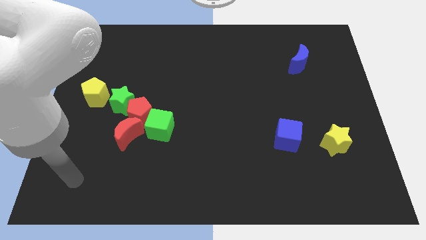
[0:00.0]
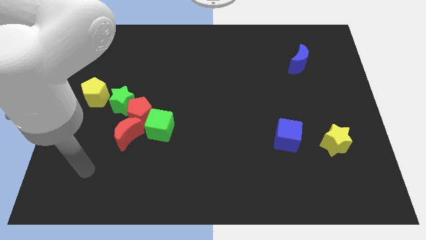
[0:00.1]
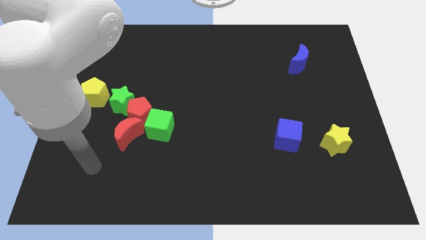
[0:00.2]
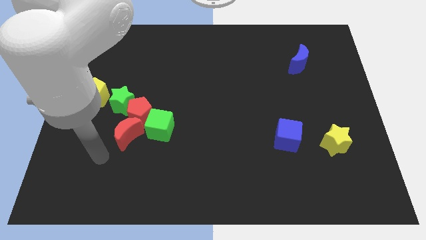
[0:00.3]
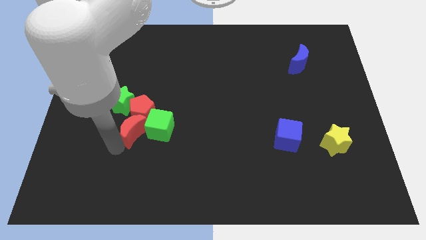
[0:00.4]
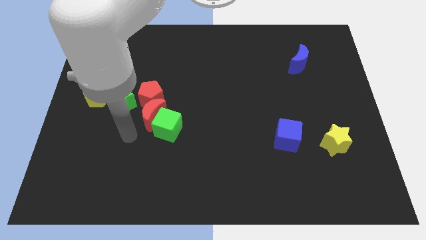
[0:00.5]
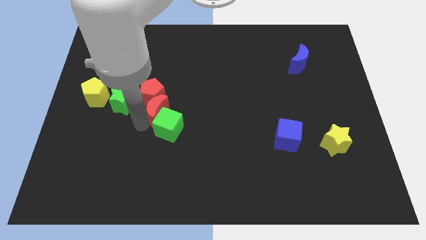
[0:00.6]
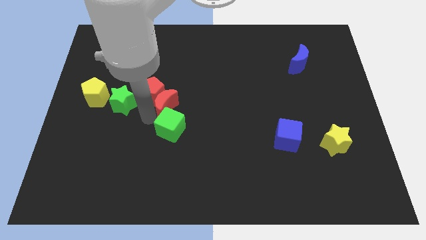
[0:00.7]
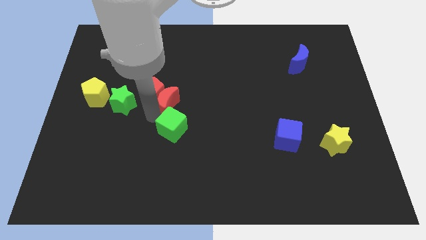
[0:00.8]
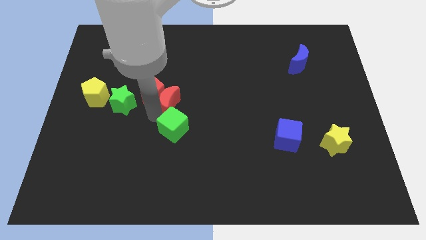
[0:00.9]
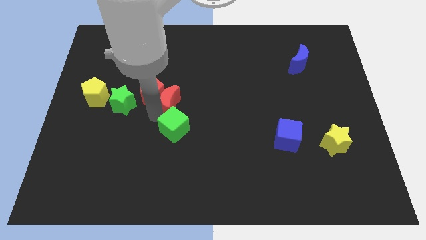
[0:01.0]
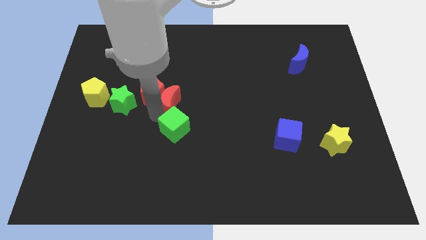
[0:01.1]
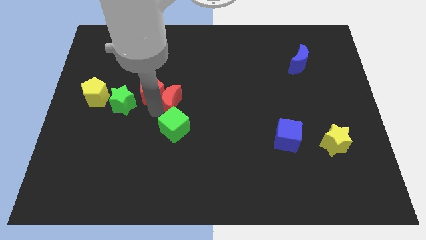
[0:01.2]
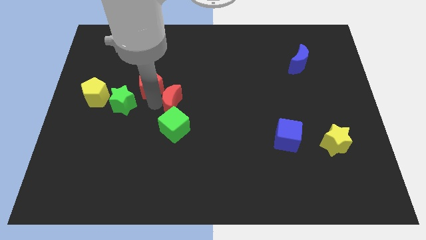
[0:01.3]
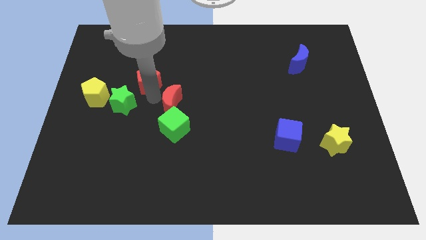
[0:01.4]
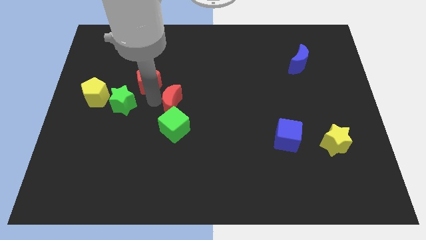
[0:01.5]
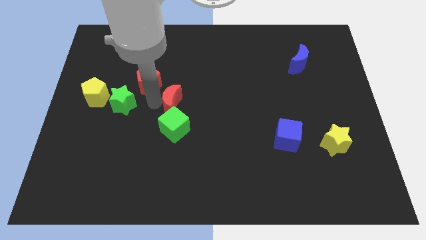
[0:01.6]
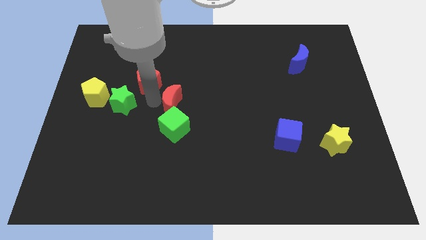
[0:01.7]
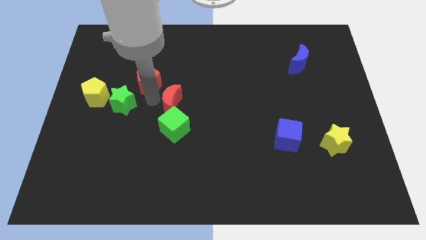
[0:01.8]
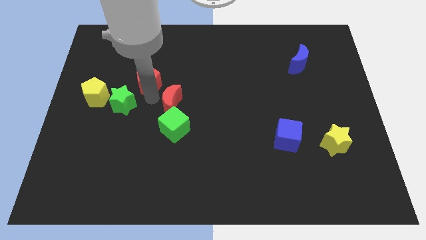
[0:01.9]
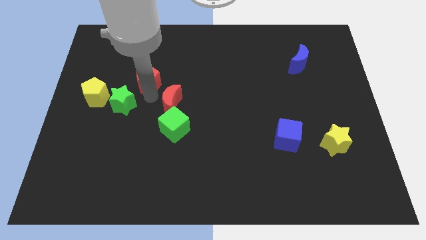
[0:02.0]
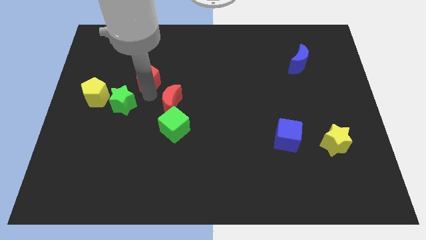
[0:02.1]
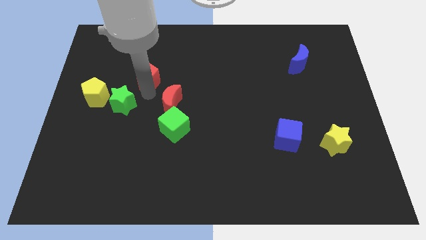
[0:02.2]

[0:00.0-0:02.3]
separate the red pentagon from the group of blocks

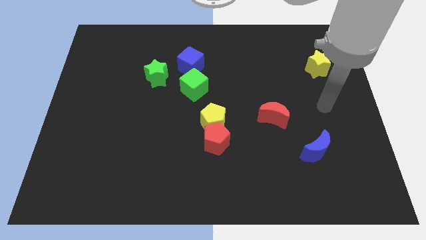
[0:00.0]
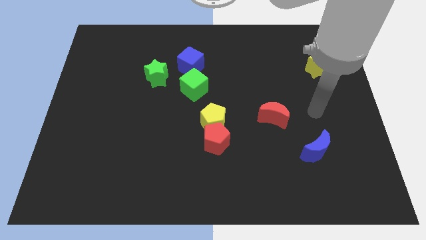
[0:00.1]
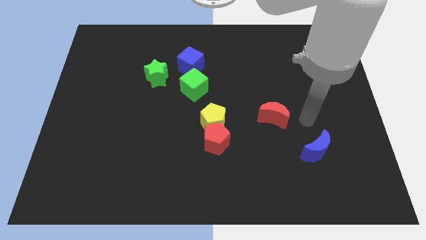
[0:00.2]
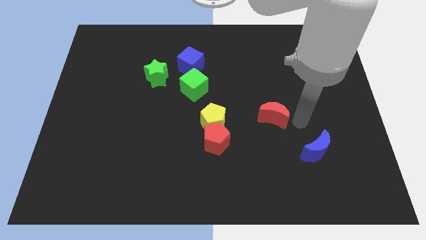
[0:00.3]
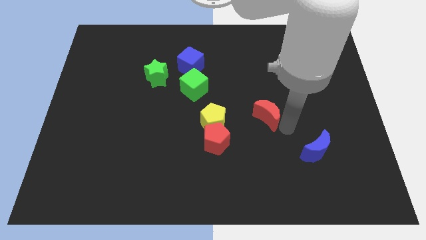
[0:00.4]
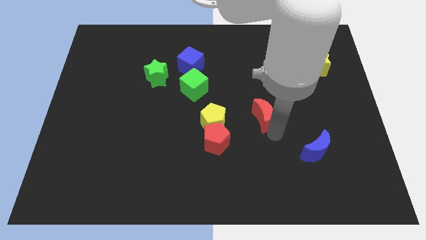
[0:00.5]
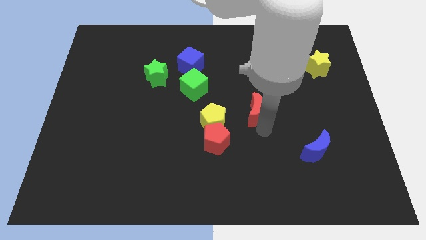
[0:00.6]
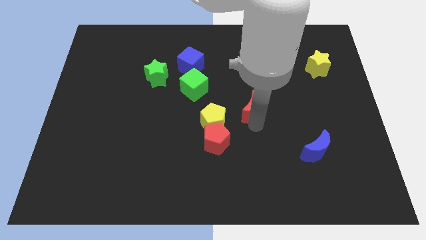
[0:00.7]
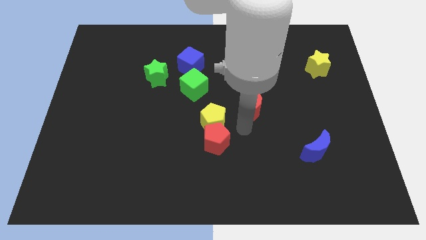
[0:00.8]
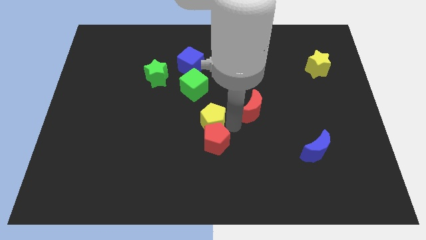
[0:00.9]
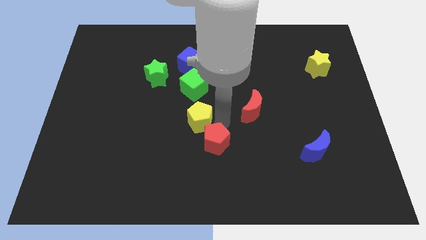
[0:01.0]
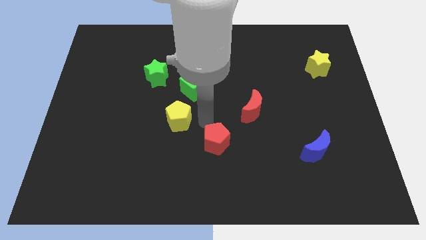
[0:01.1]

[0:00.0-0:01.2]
pull the red pentagon apart from the yellow pentagon

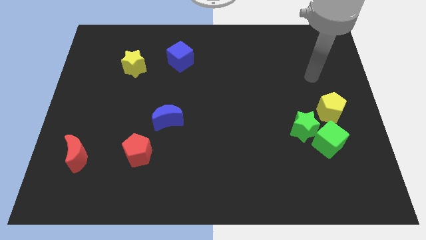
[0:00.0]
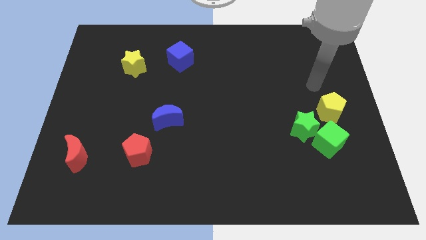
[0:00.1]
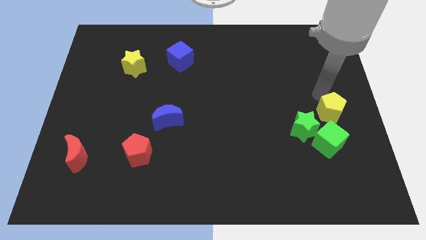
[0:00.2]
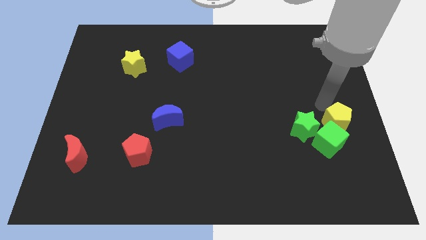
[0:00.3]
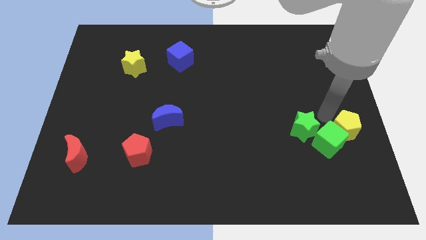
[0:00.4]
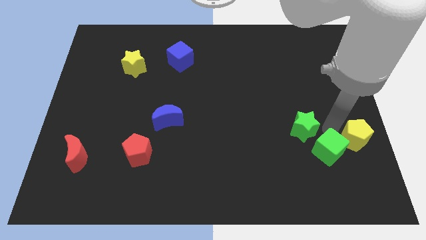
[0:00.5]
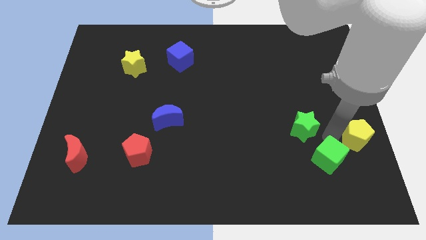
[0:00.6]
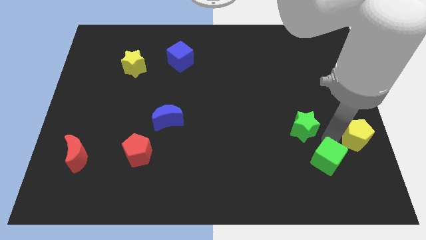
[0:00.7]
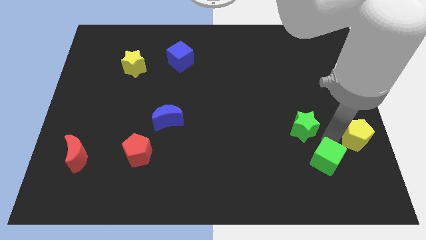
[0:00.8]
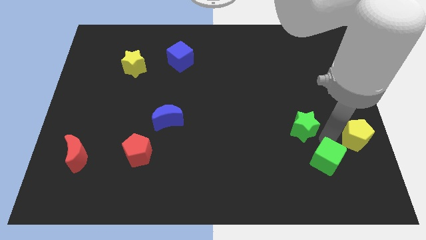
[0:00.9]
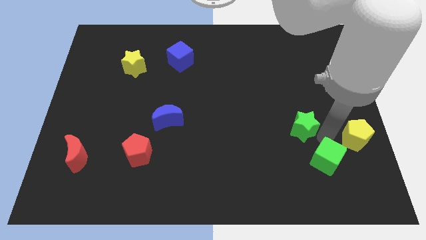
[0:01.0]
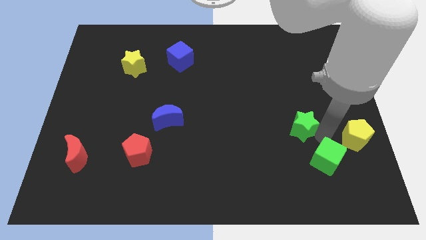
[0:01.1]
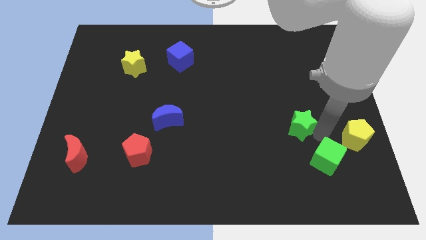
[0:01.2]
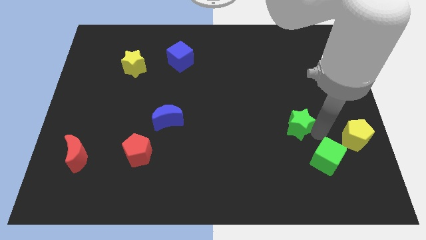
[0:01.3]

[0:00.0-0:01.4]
pull the green star apart from the green cube and yellow pentagon

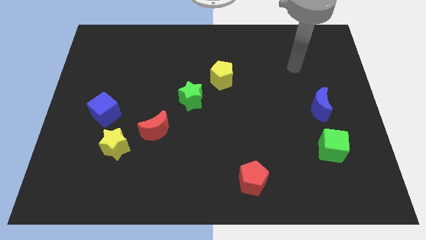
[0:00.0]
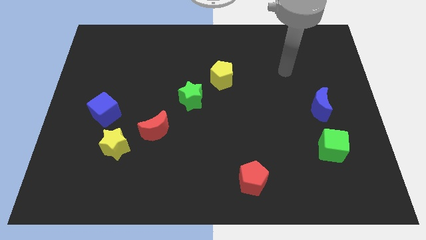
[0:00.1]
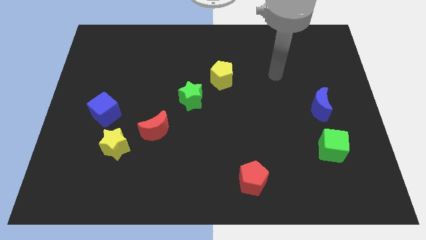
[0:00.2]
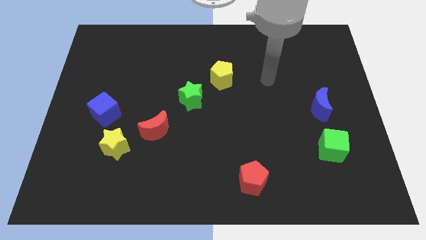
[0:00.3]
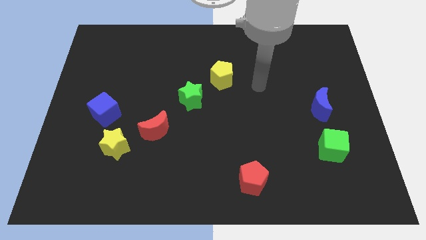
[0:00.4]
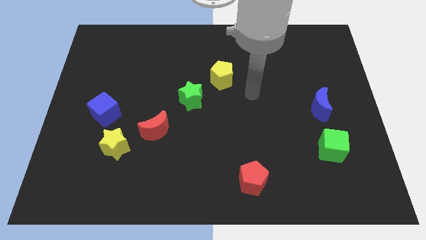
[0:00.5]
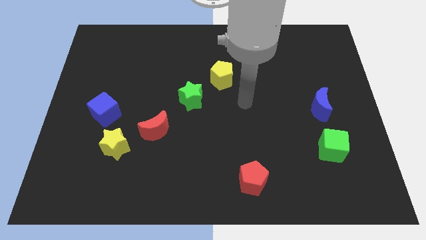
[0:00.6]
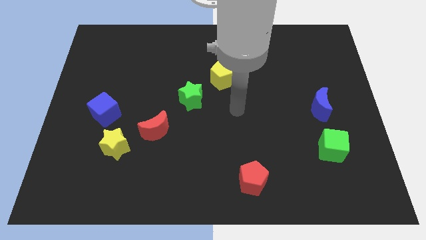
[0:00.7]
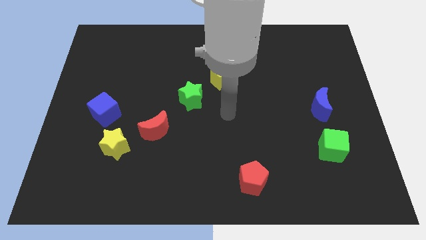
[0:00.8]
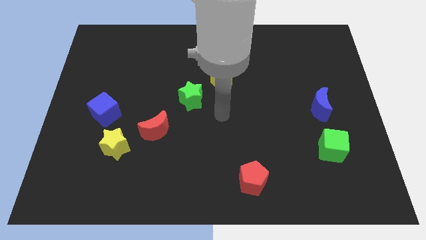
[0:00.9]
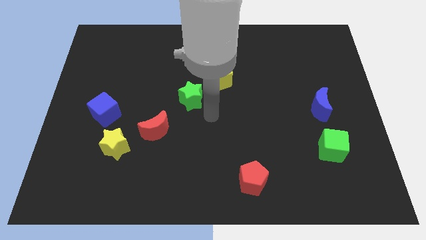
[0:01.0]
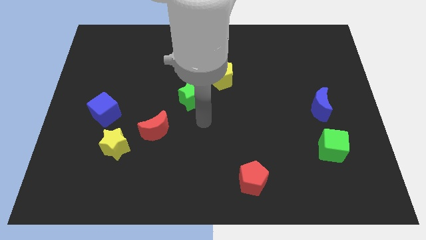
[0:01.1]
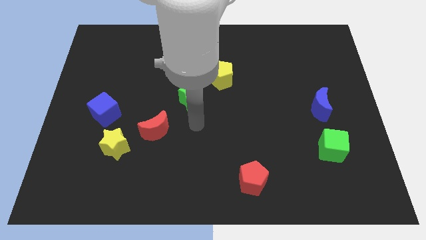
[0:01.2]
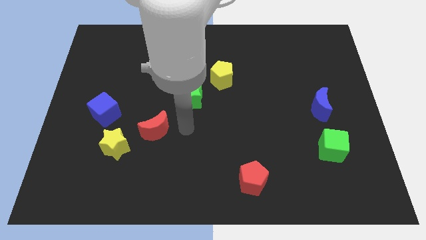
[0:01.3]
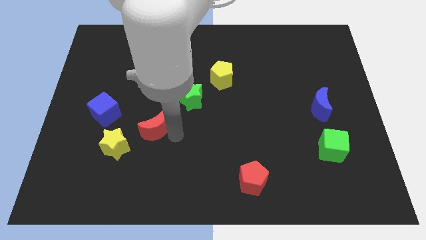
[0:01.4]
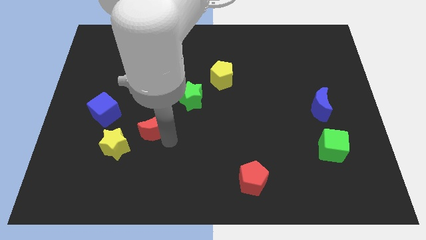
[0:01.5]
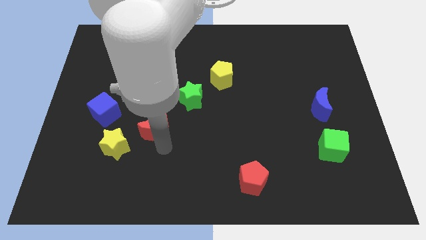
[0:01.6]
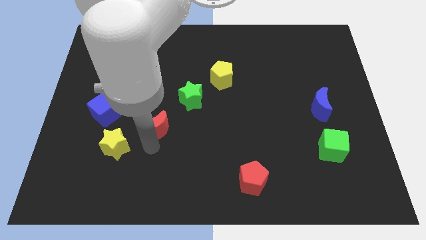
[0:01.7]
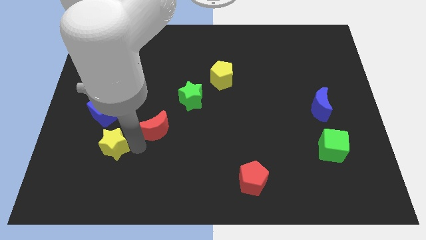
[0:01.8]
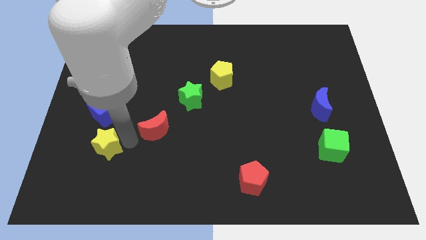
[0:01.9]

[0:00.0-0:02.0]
move the red moon away from the yellow star

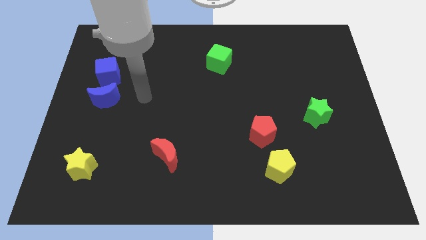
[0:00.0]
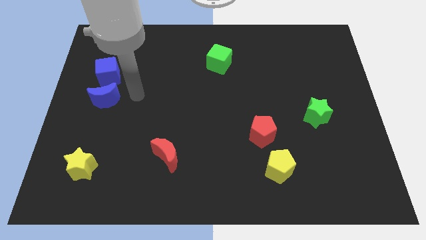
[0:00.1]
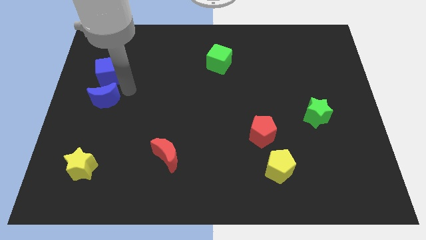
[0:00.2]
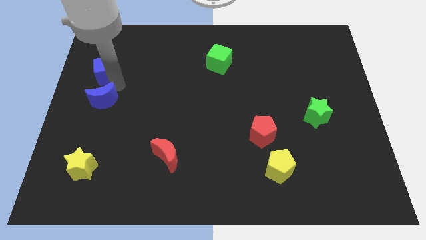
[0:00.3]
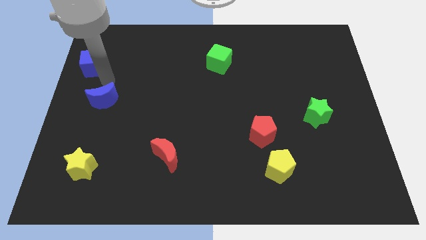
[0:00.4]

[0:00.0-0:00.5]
pull the blue moon apart from the blue cube

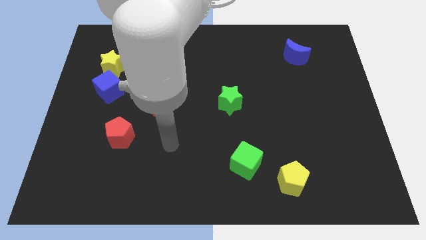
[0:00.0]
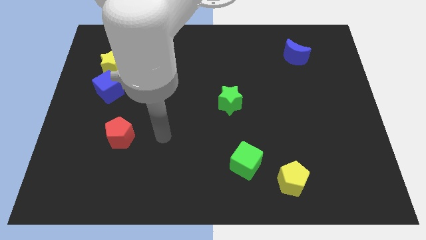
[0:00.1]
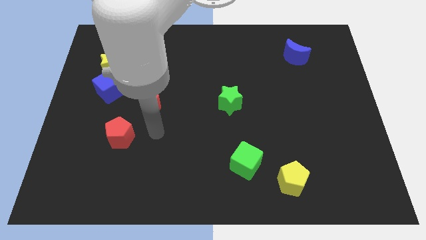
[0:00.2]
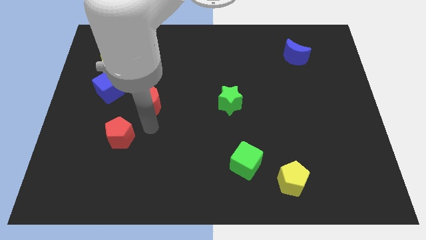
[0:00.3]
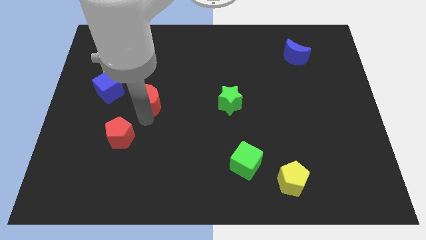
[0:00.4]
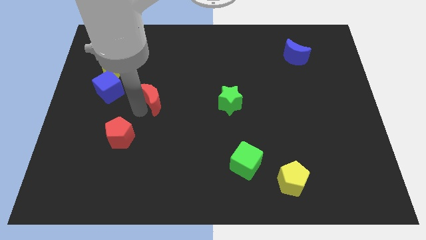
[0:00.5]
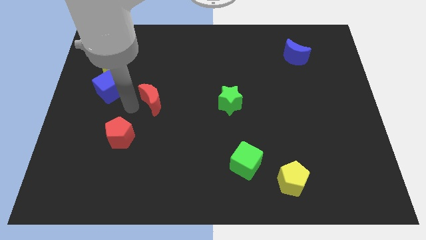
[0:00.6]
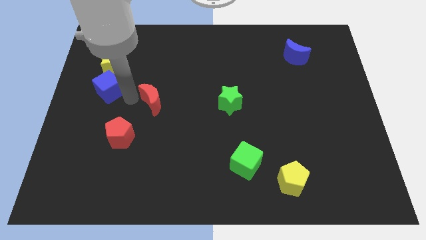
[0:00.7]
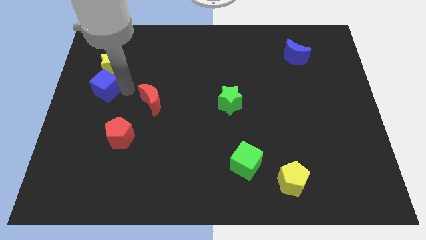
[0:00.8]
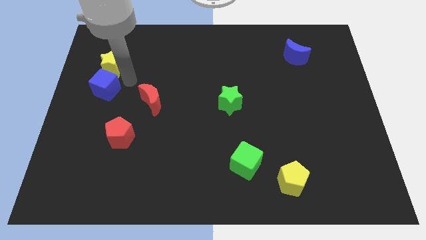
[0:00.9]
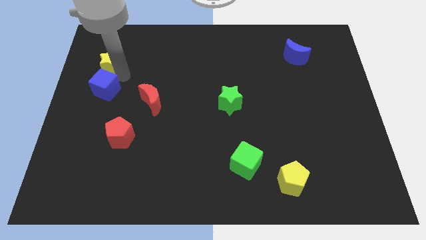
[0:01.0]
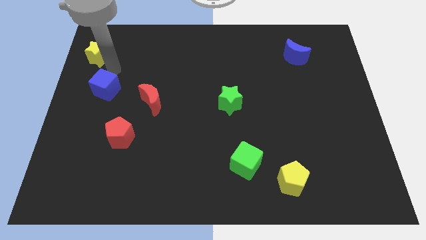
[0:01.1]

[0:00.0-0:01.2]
pull the blue cube apart from the yellow star

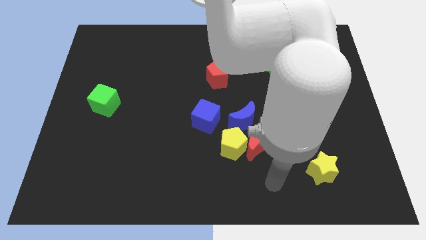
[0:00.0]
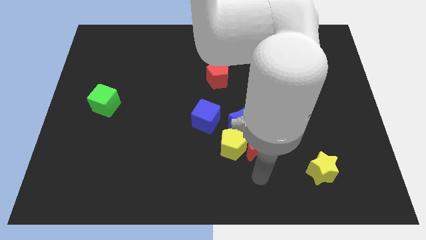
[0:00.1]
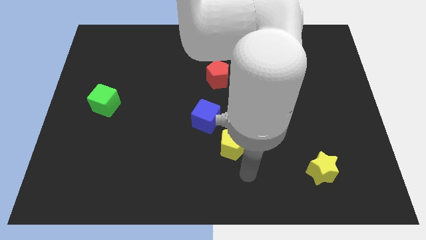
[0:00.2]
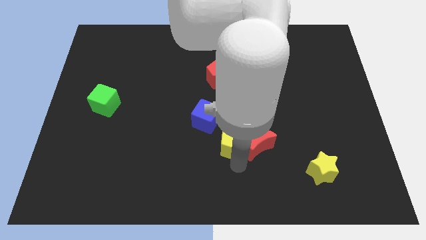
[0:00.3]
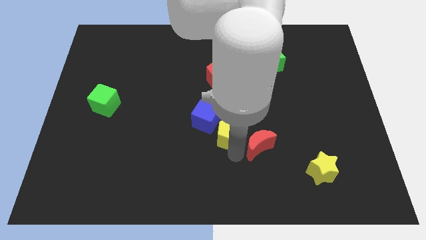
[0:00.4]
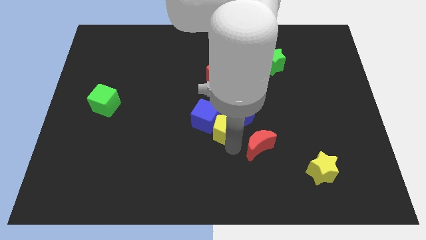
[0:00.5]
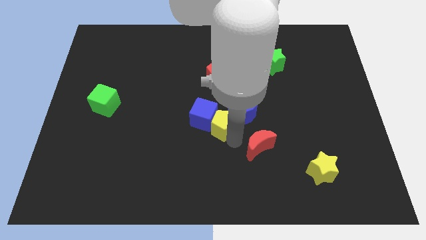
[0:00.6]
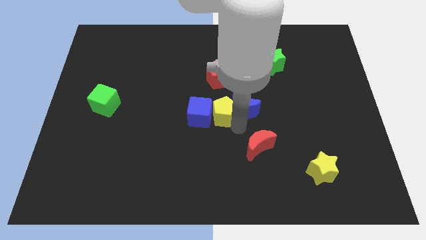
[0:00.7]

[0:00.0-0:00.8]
separate the red moon from the yellow pentagon and blue moon
